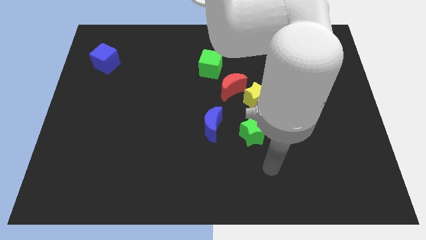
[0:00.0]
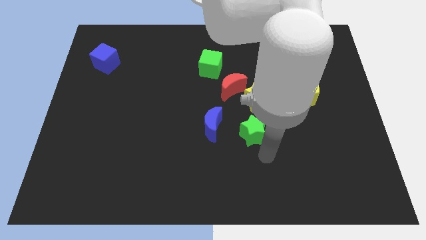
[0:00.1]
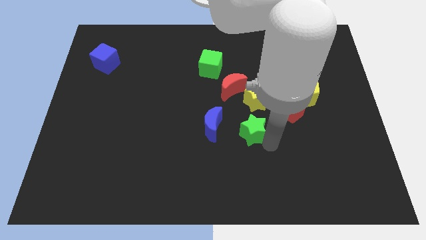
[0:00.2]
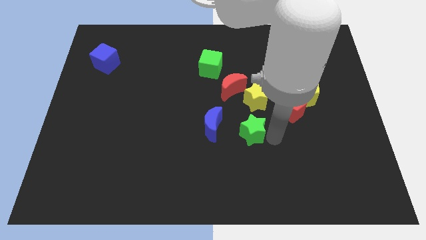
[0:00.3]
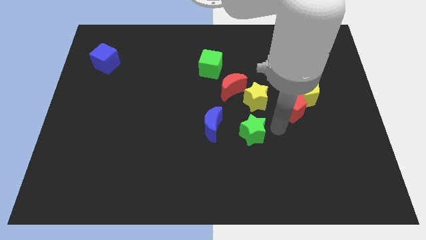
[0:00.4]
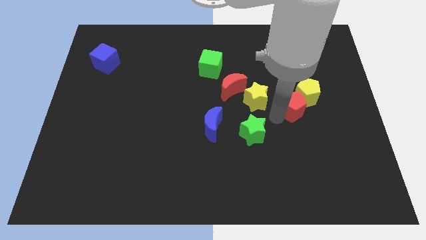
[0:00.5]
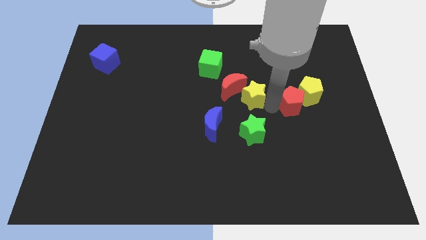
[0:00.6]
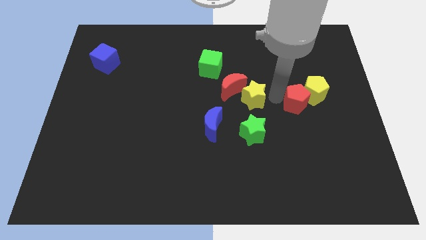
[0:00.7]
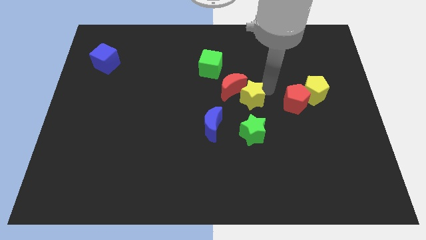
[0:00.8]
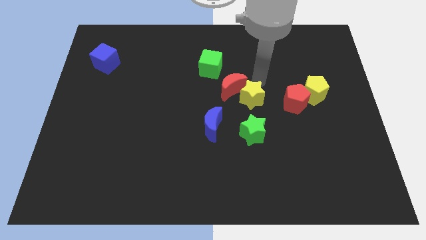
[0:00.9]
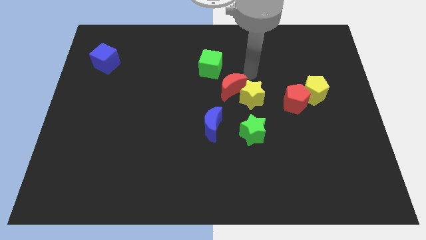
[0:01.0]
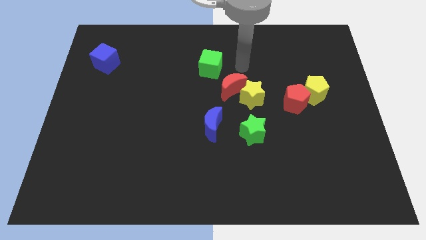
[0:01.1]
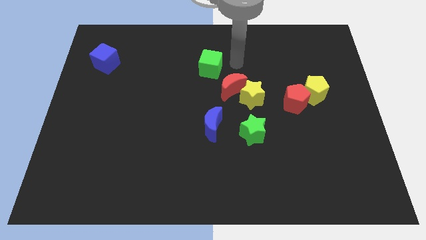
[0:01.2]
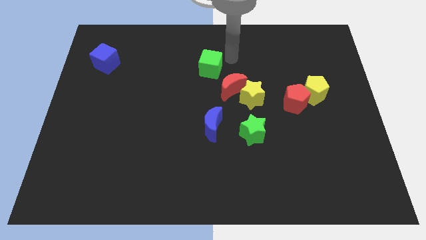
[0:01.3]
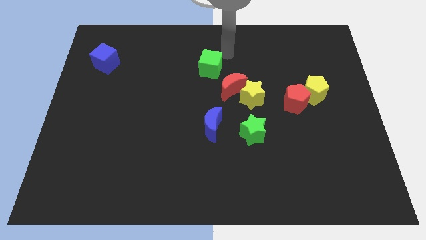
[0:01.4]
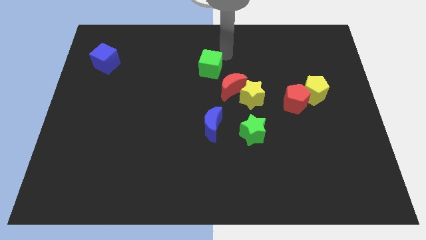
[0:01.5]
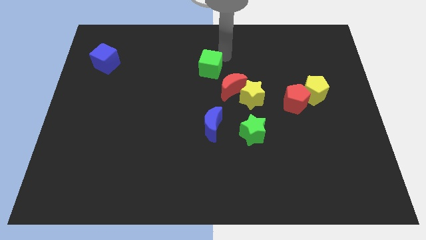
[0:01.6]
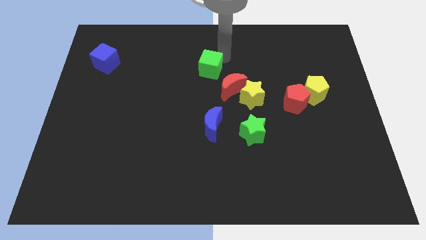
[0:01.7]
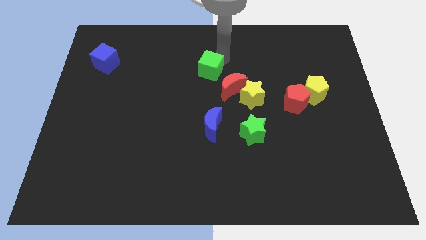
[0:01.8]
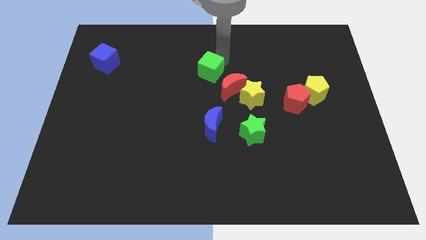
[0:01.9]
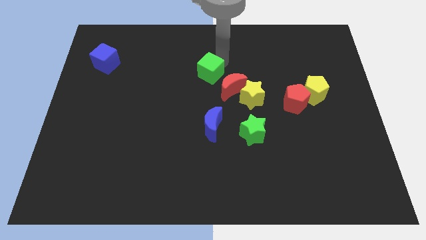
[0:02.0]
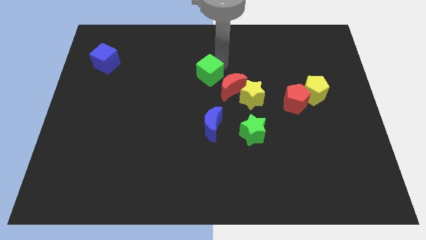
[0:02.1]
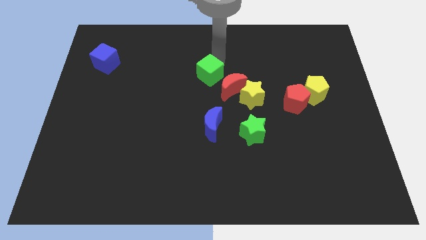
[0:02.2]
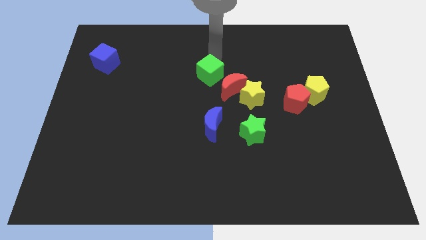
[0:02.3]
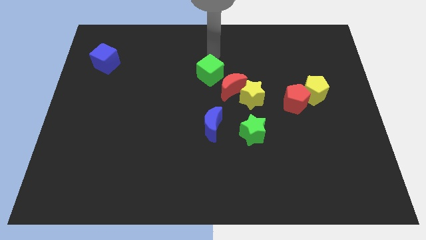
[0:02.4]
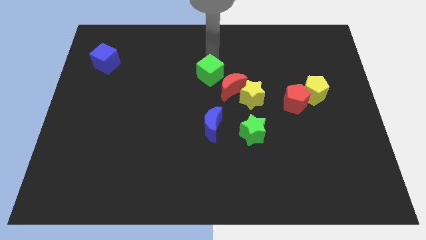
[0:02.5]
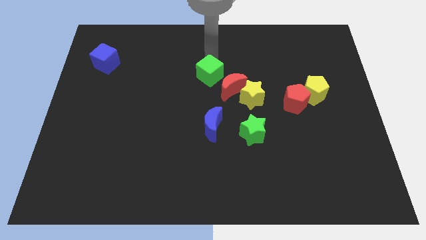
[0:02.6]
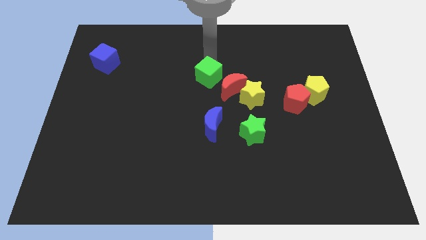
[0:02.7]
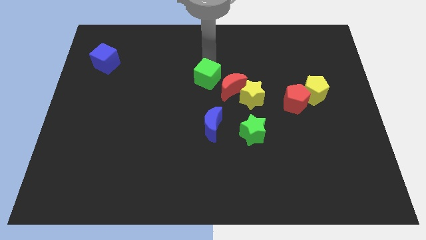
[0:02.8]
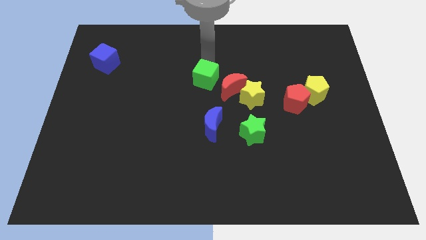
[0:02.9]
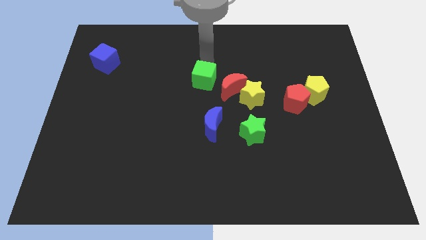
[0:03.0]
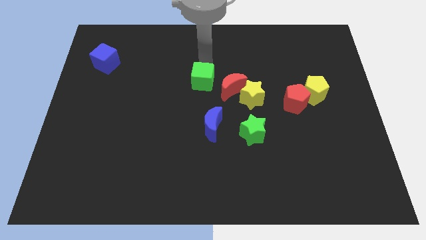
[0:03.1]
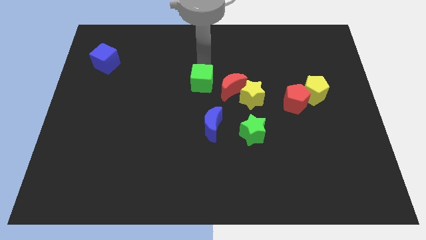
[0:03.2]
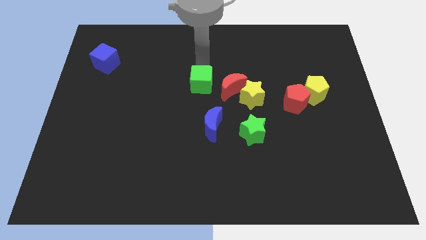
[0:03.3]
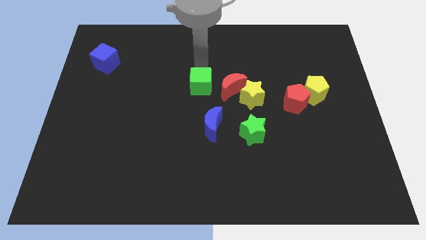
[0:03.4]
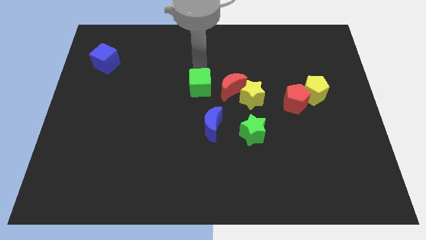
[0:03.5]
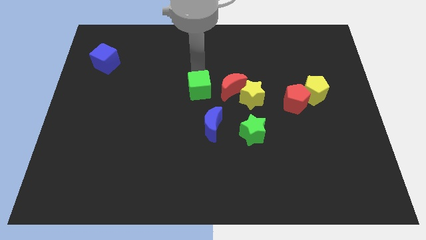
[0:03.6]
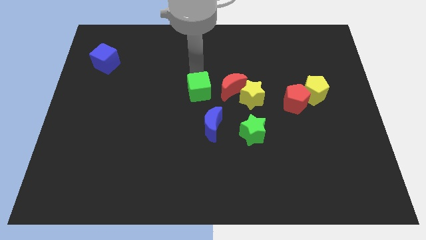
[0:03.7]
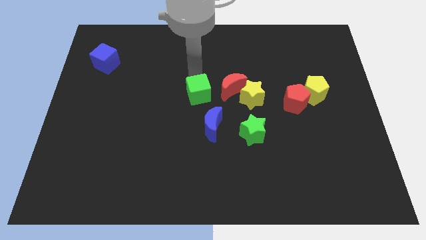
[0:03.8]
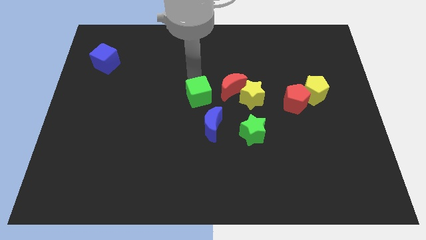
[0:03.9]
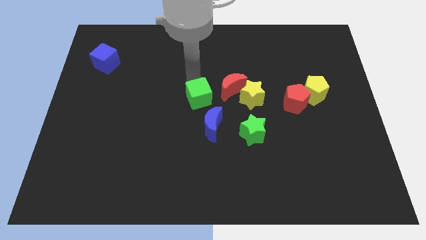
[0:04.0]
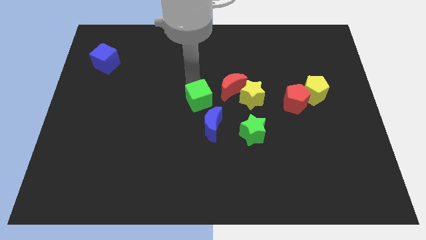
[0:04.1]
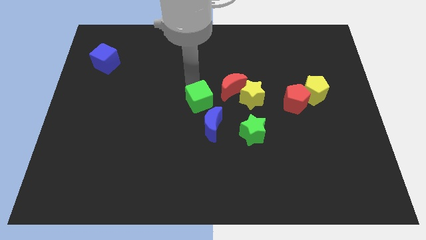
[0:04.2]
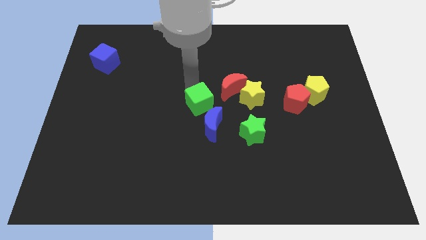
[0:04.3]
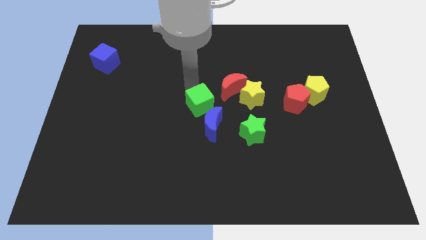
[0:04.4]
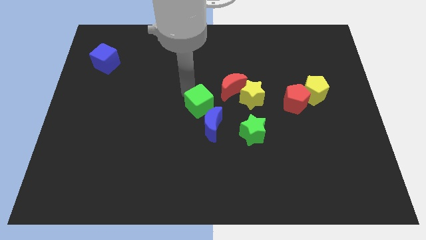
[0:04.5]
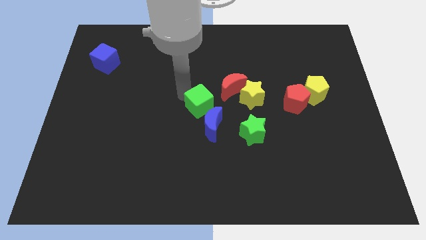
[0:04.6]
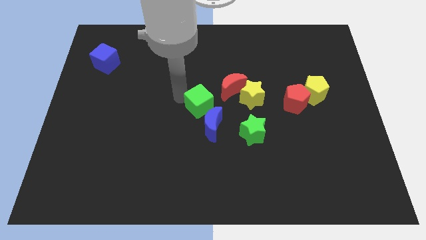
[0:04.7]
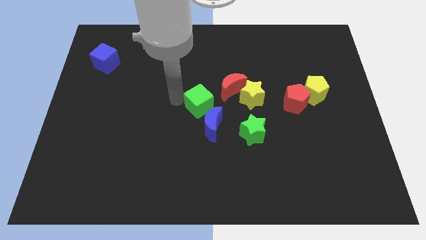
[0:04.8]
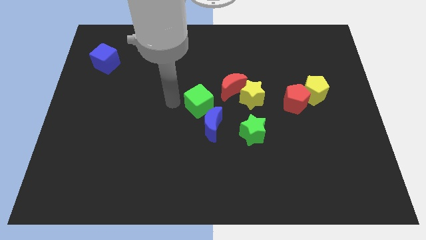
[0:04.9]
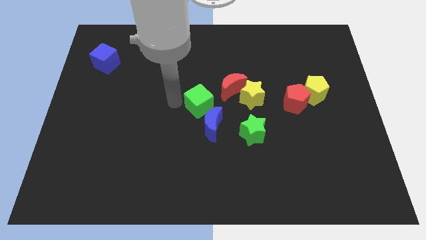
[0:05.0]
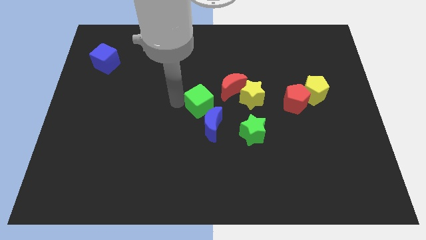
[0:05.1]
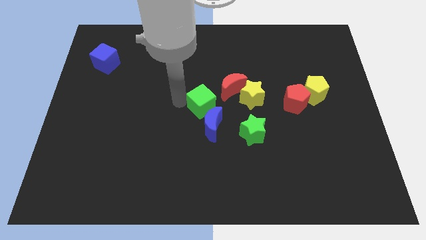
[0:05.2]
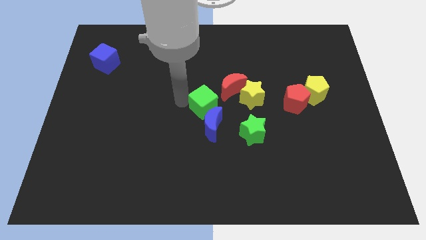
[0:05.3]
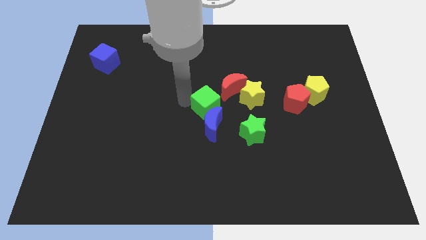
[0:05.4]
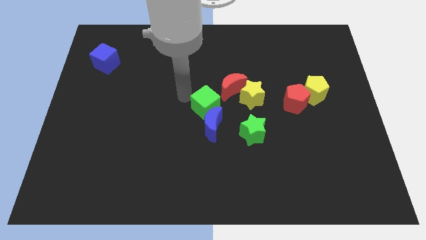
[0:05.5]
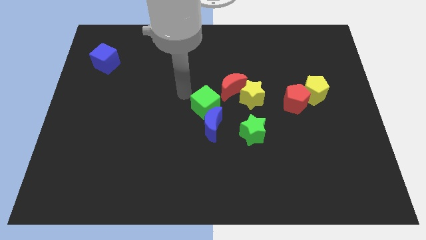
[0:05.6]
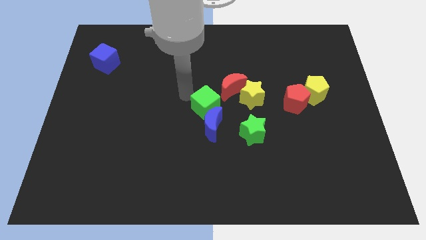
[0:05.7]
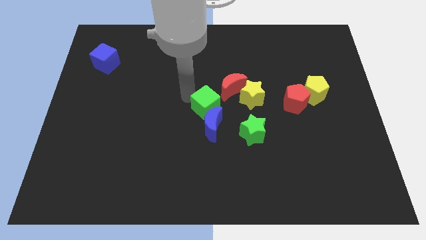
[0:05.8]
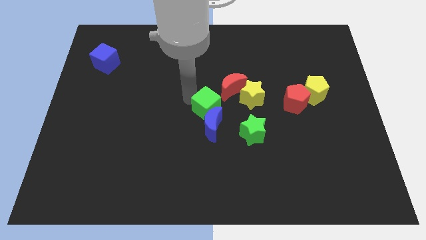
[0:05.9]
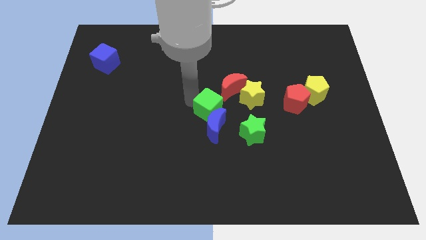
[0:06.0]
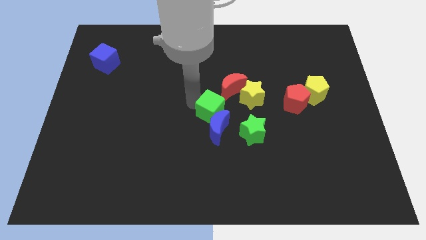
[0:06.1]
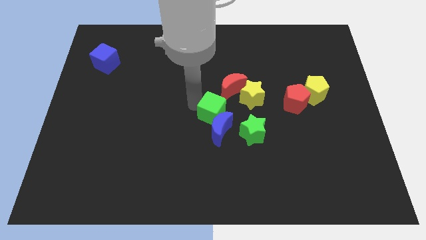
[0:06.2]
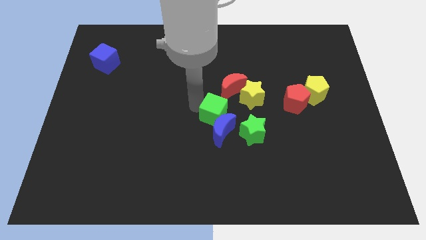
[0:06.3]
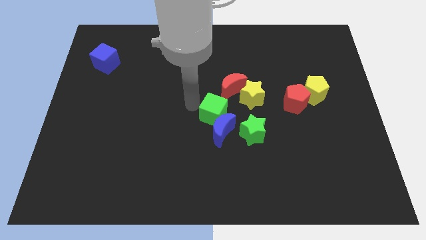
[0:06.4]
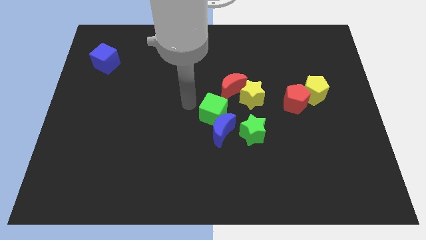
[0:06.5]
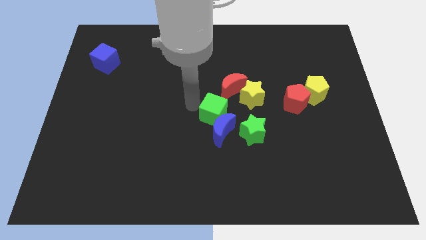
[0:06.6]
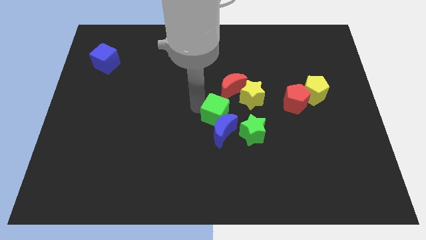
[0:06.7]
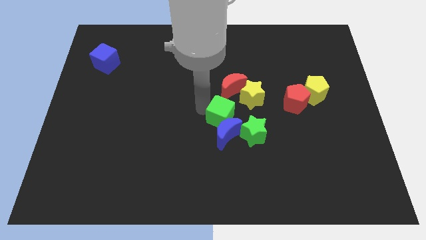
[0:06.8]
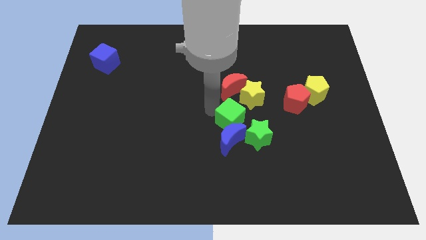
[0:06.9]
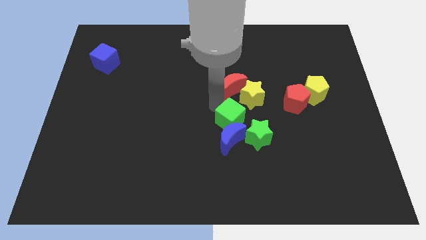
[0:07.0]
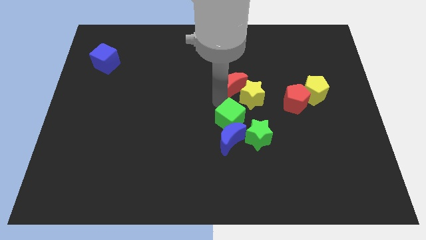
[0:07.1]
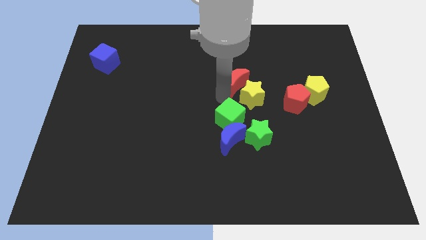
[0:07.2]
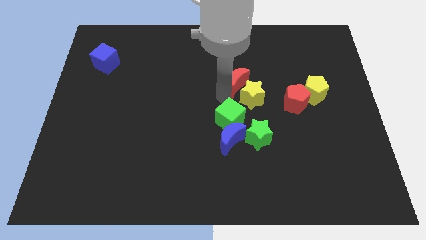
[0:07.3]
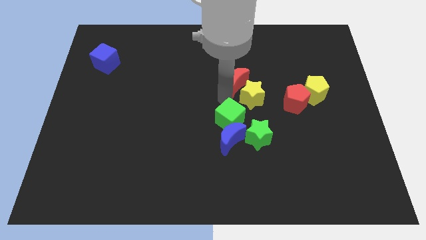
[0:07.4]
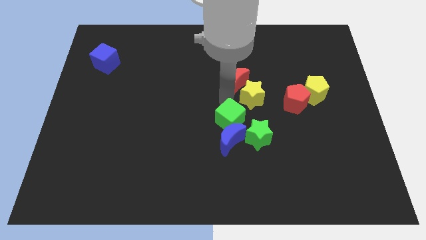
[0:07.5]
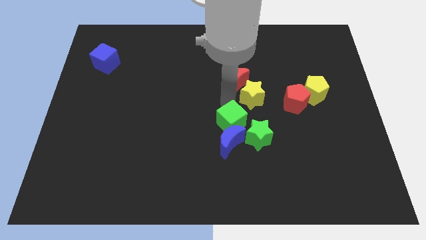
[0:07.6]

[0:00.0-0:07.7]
move the green cube to the bottom of the yellow star
